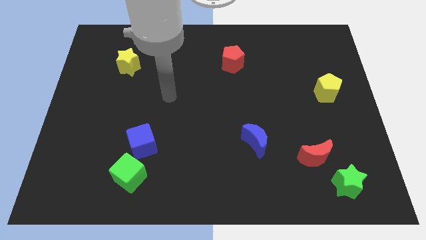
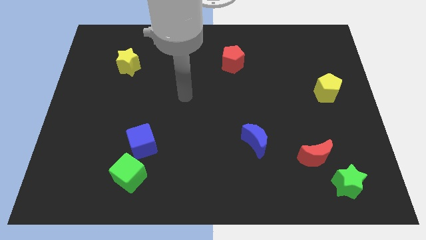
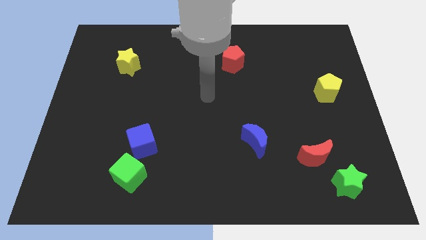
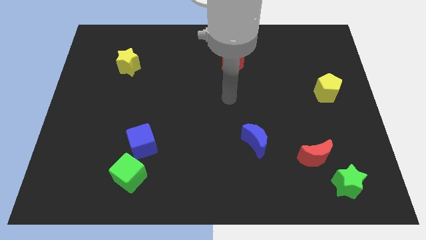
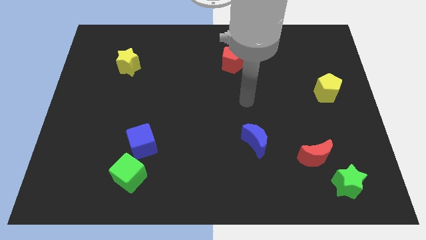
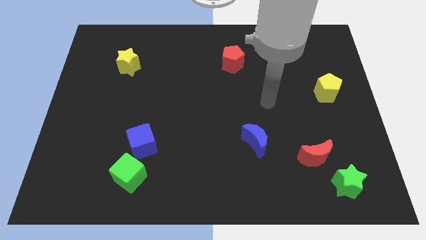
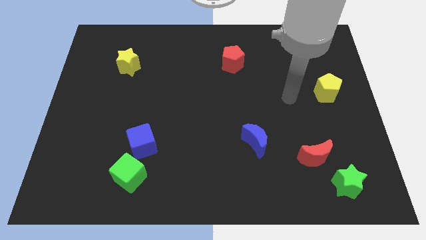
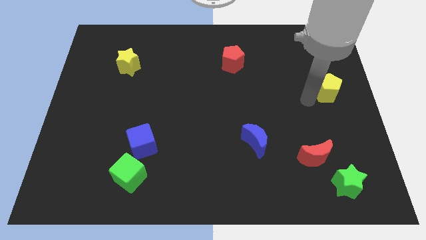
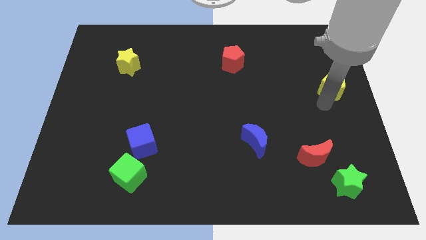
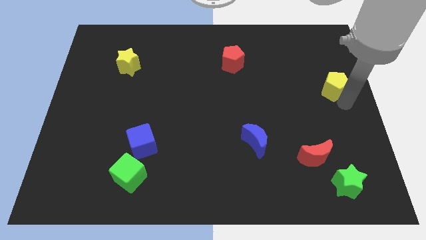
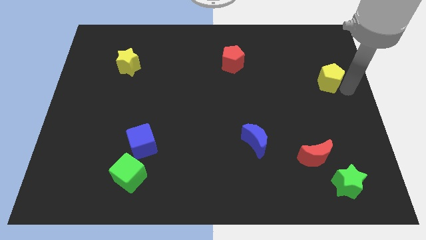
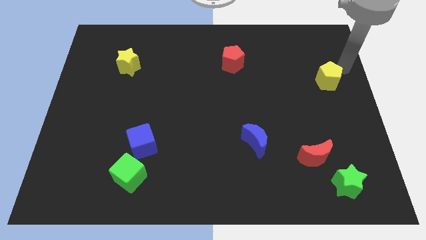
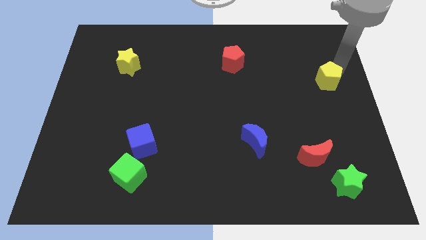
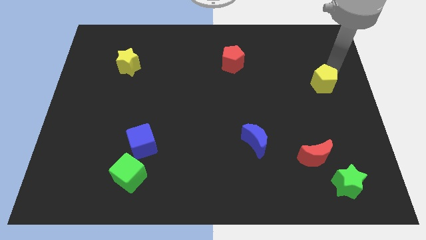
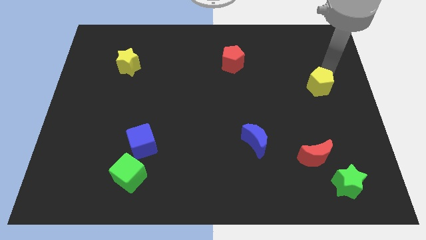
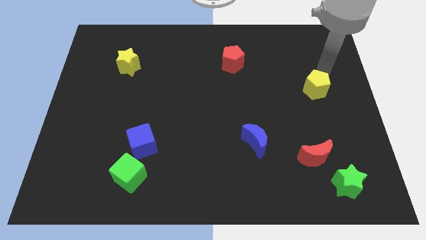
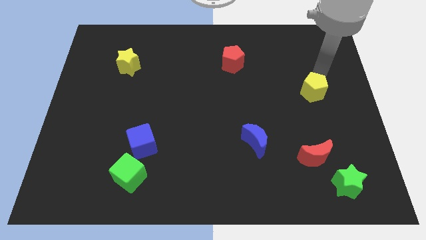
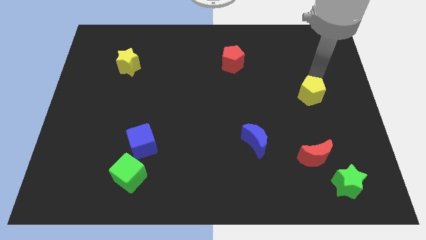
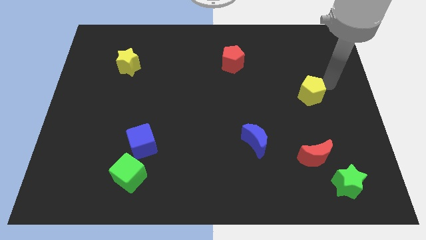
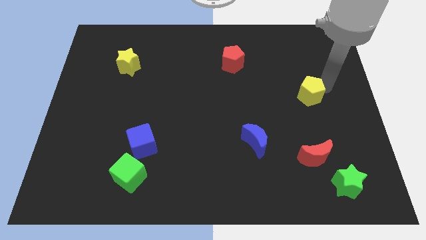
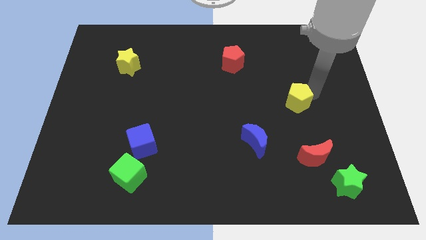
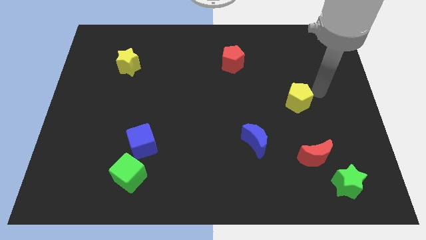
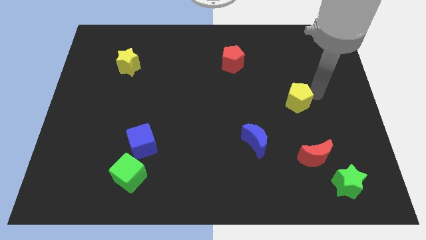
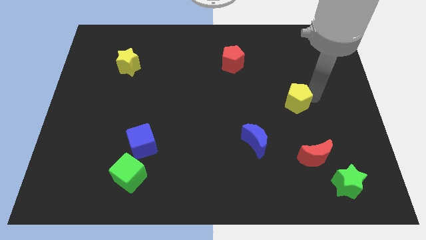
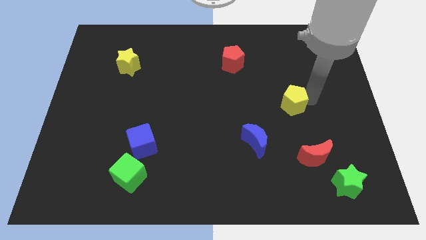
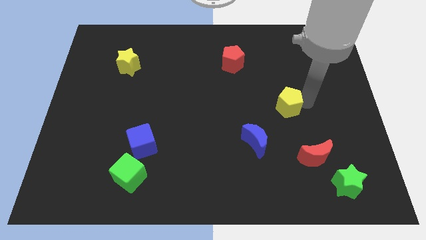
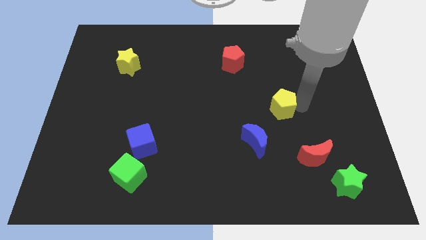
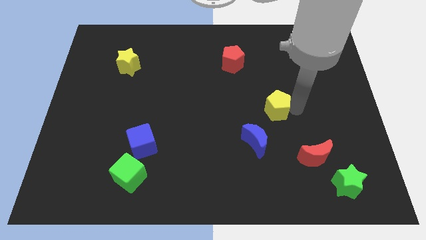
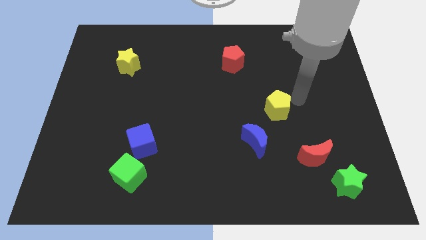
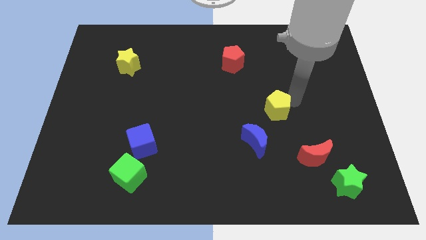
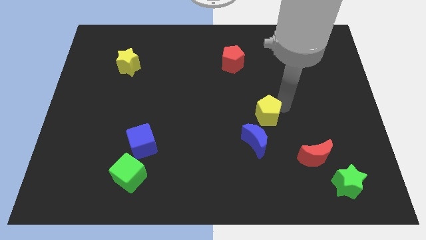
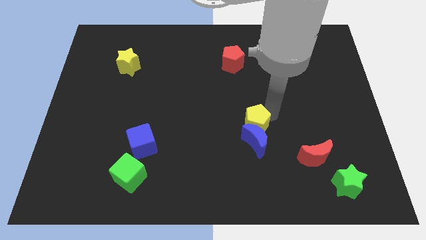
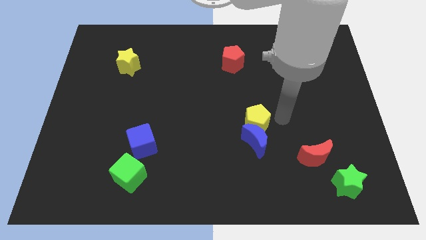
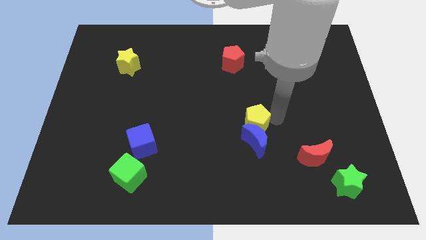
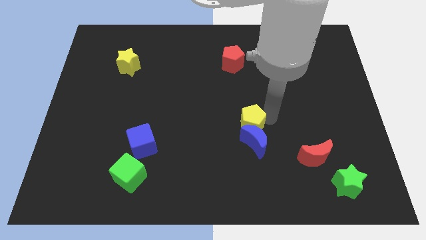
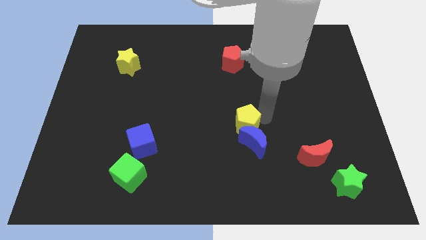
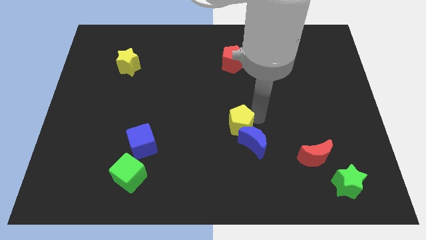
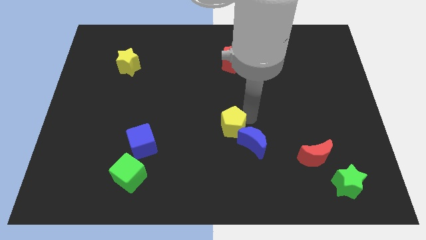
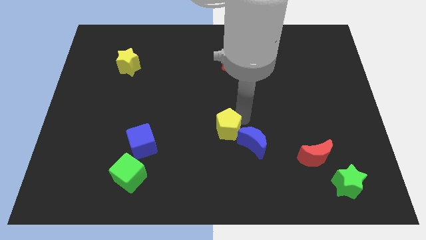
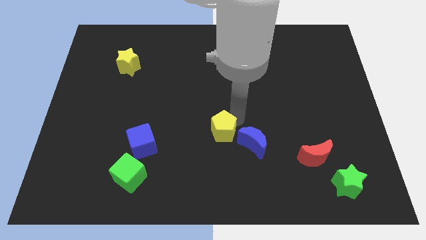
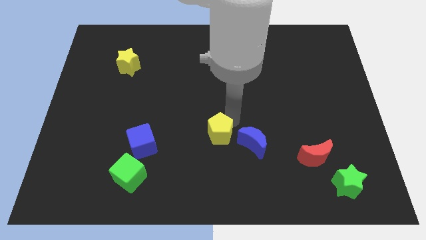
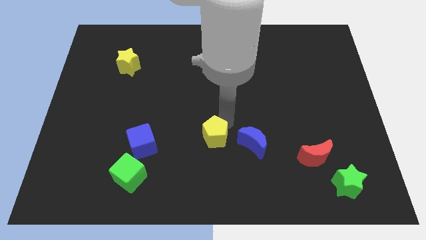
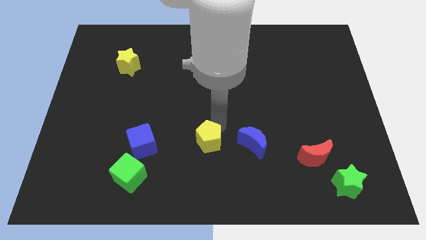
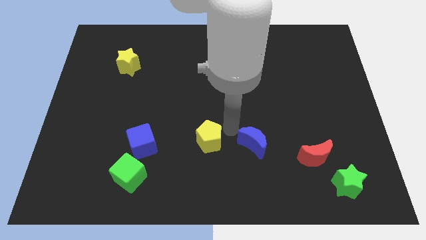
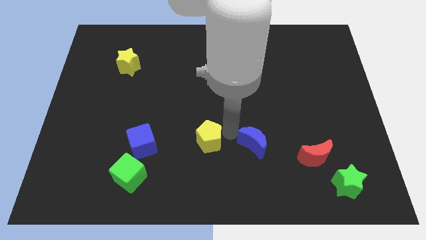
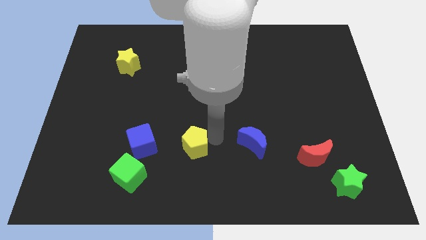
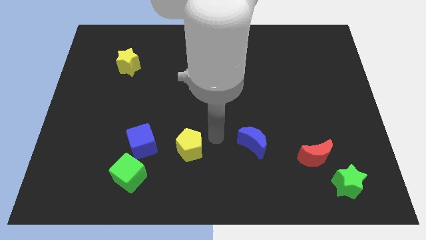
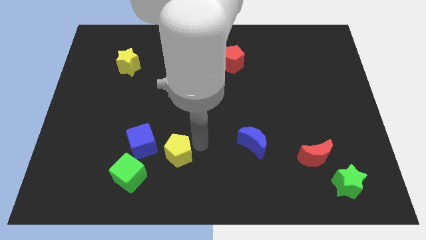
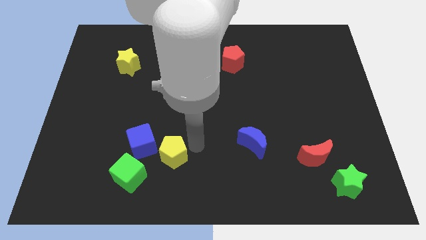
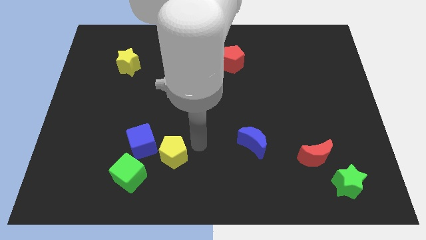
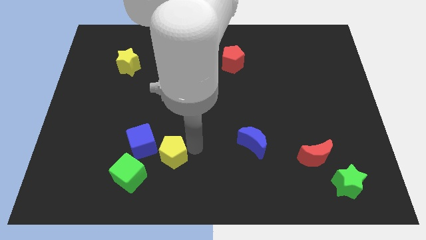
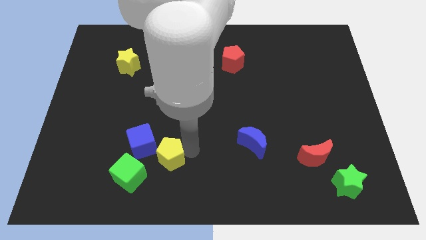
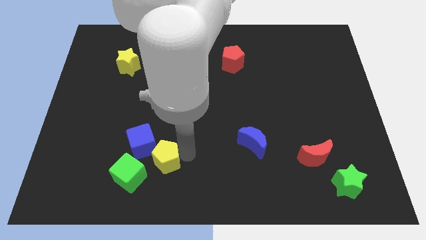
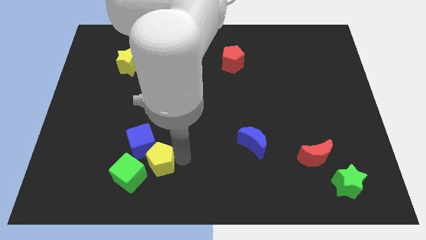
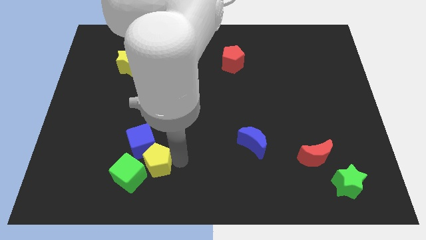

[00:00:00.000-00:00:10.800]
slide the yellow pentagon to the green cube

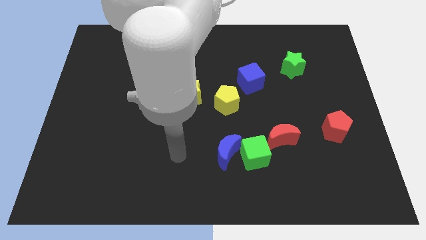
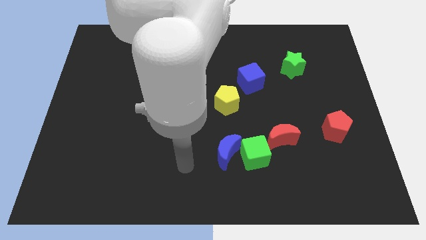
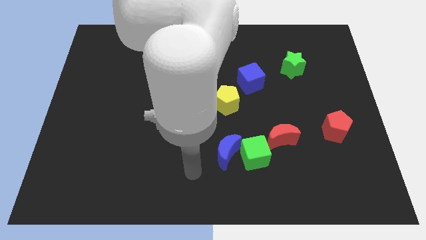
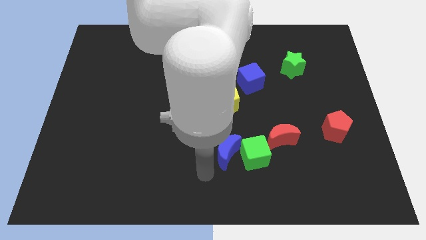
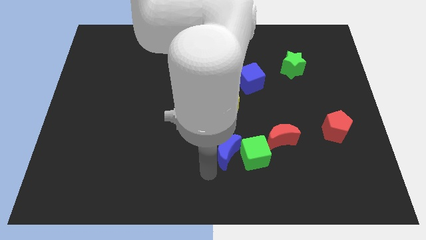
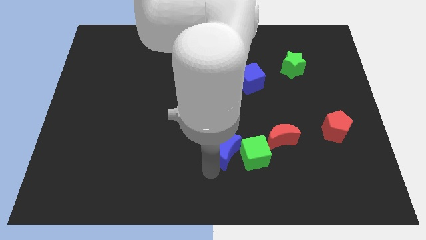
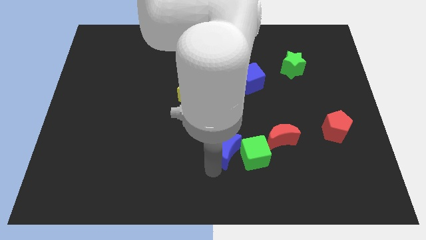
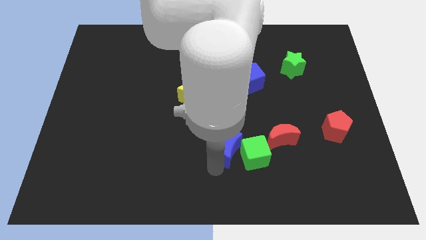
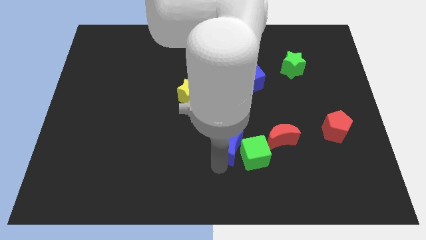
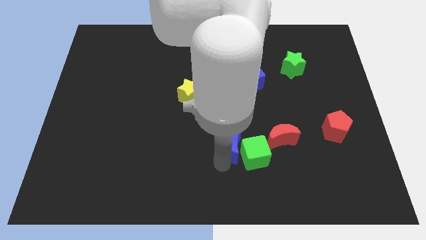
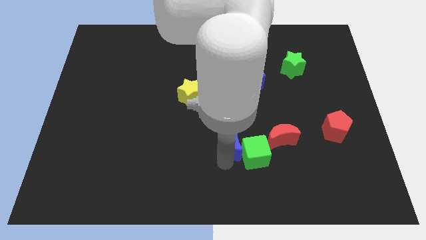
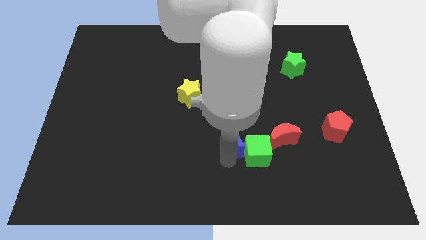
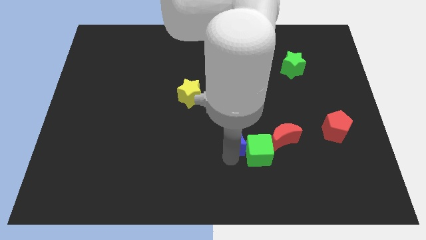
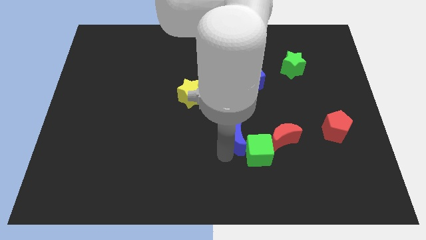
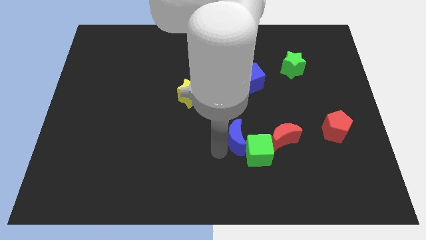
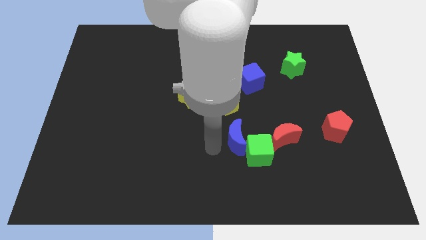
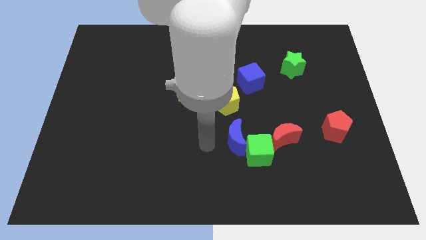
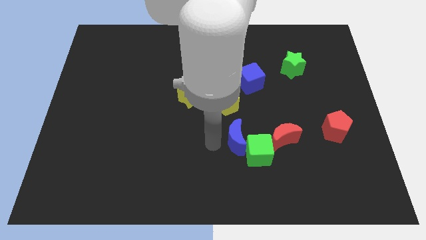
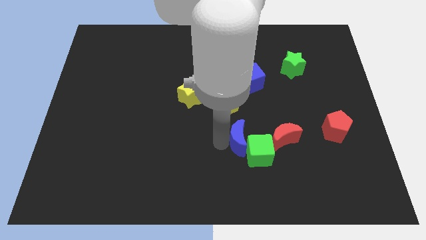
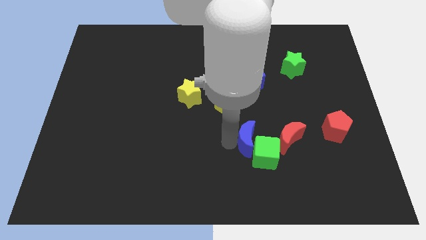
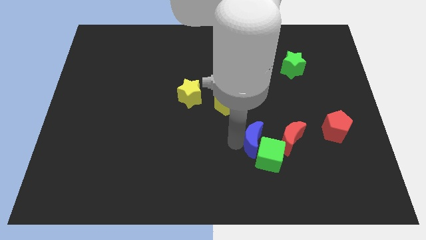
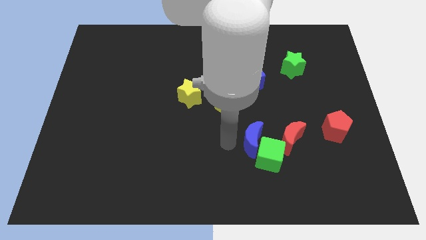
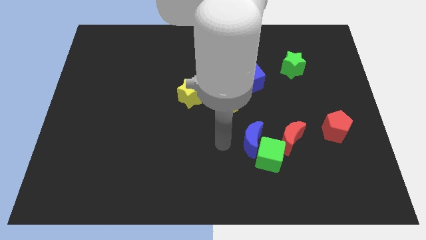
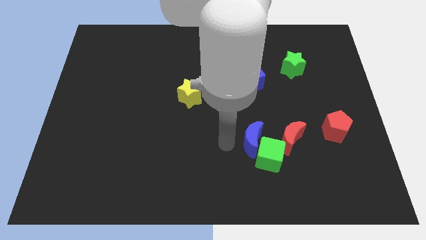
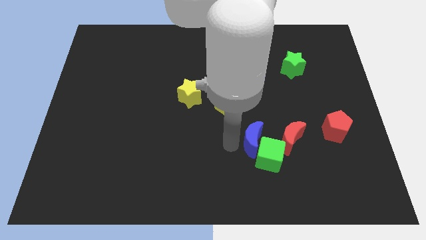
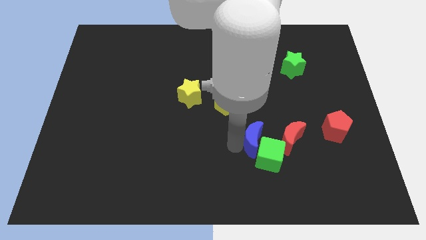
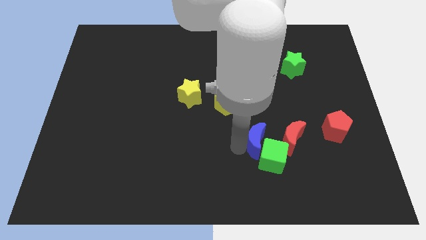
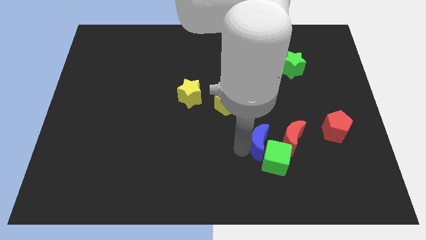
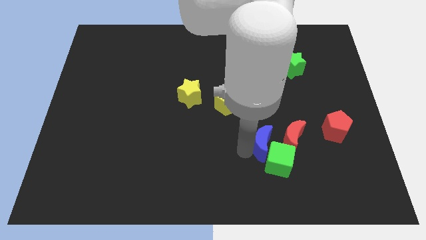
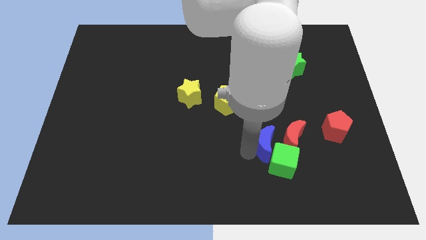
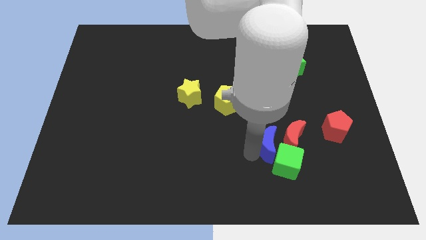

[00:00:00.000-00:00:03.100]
push the blue moon towards the red moon
